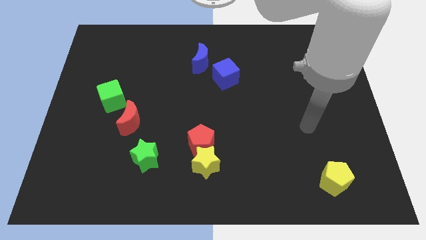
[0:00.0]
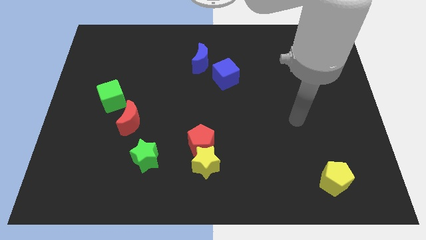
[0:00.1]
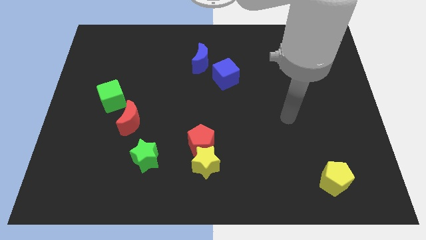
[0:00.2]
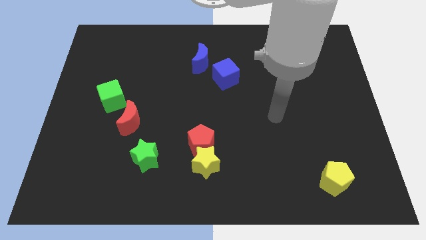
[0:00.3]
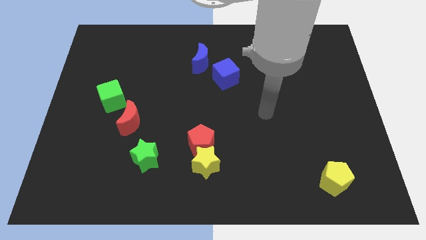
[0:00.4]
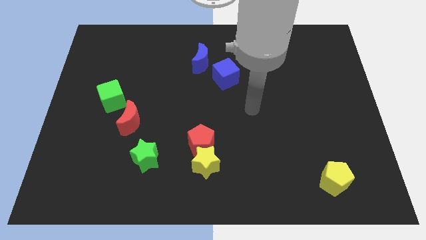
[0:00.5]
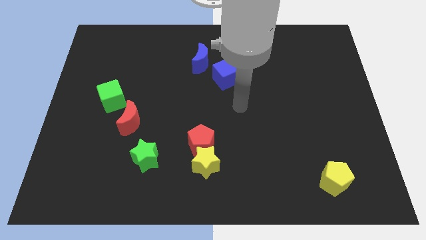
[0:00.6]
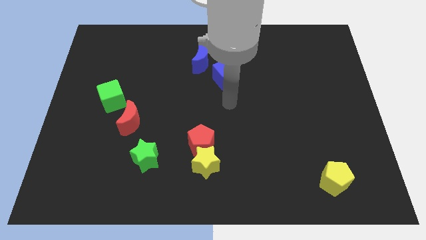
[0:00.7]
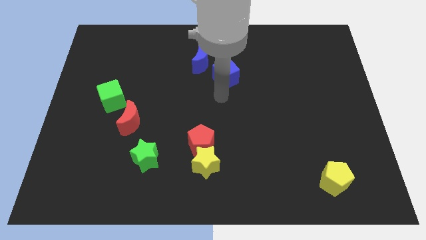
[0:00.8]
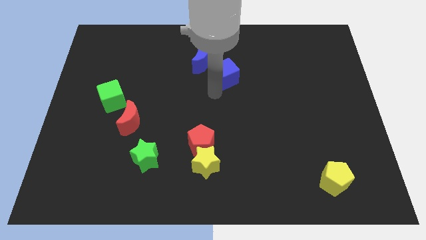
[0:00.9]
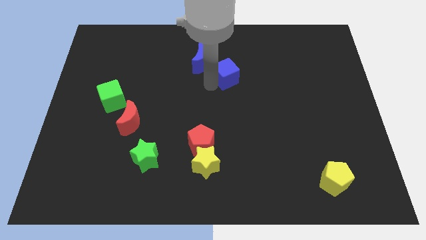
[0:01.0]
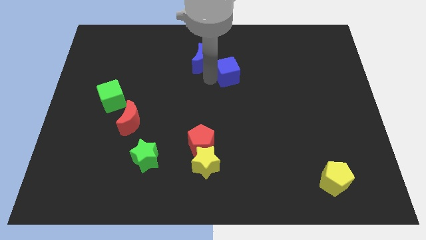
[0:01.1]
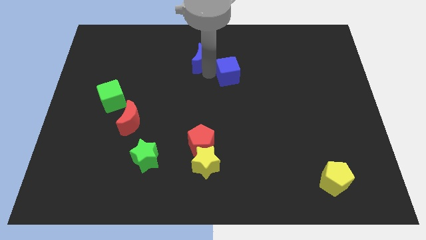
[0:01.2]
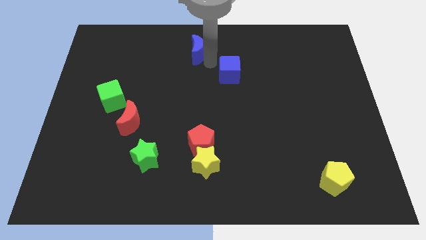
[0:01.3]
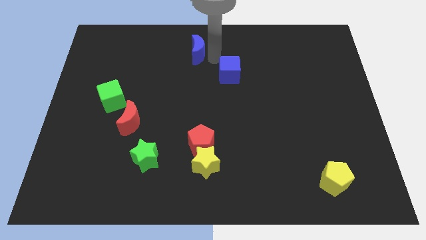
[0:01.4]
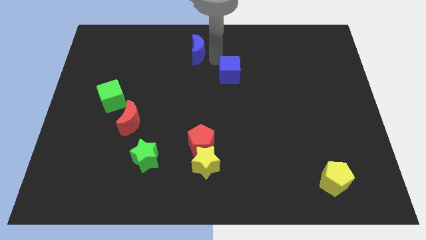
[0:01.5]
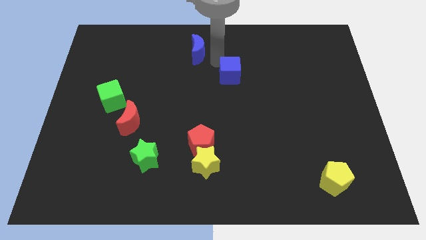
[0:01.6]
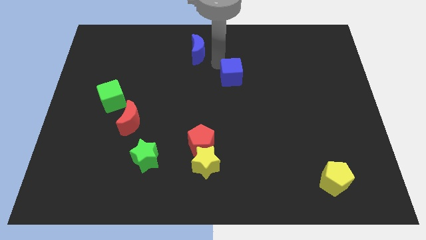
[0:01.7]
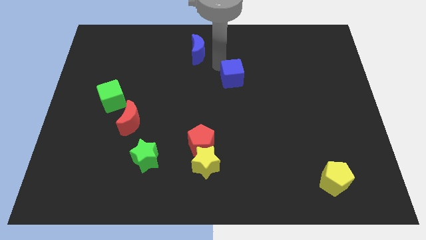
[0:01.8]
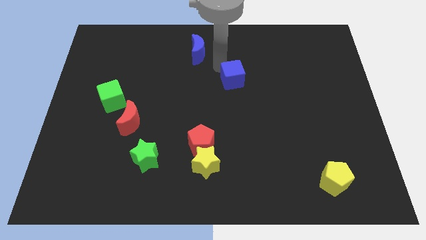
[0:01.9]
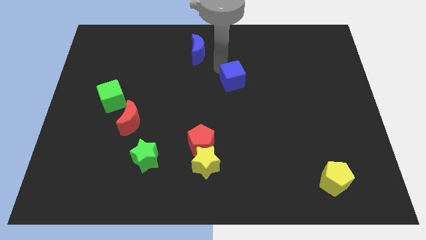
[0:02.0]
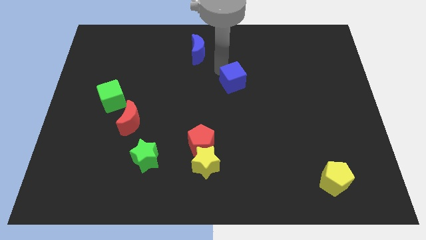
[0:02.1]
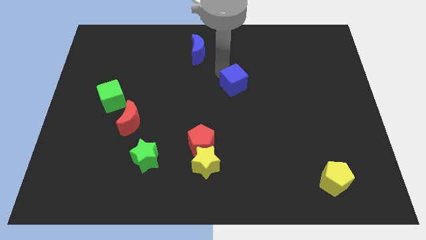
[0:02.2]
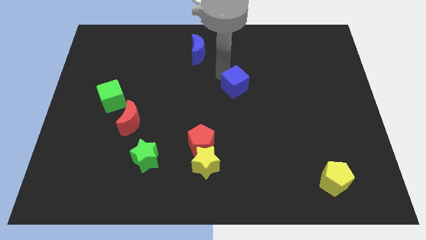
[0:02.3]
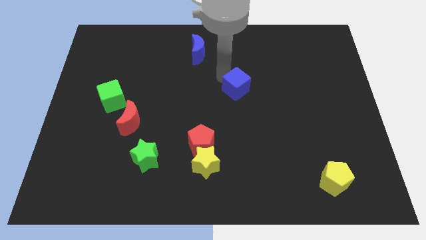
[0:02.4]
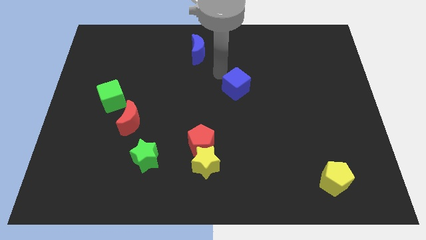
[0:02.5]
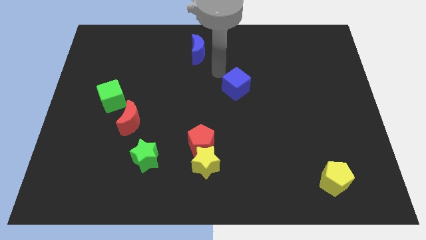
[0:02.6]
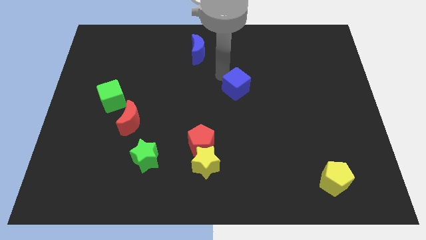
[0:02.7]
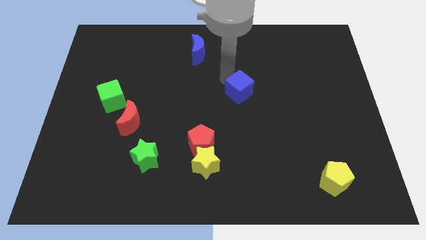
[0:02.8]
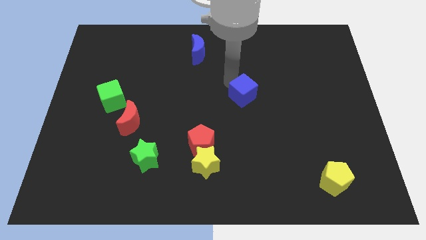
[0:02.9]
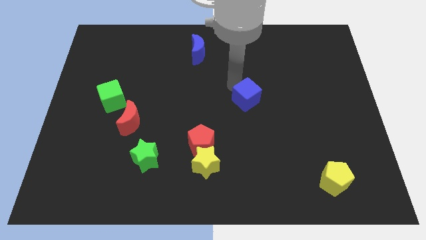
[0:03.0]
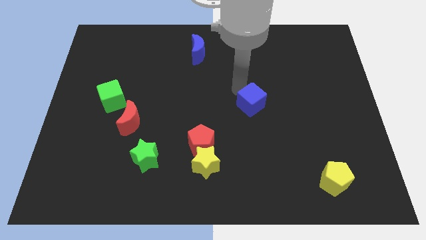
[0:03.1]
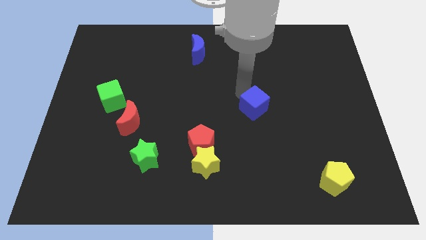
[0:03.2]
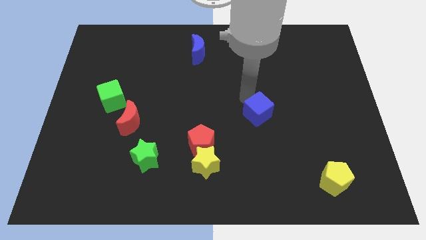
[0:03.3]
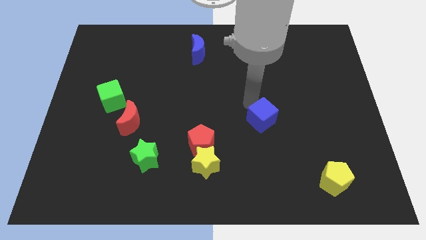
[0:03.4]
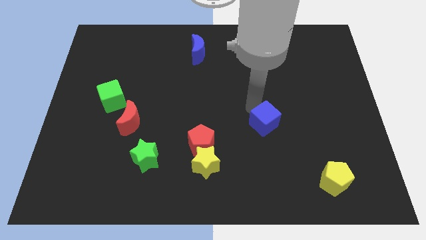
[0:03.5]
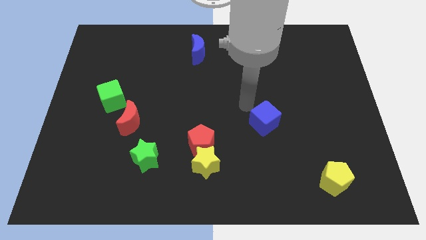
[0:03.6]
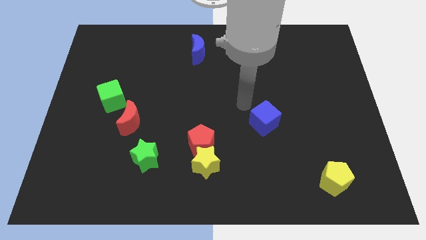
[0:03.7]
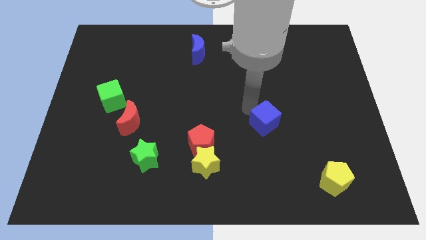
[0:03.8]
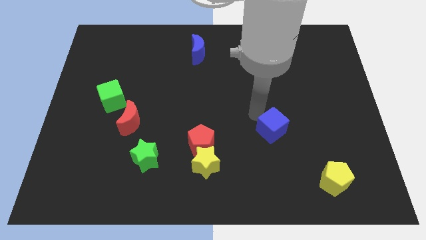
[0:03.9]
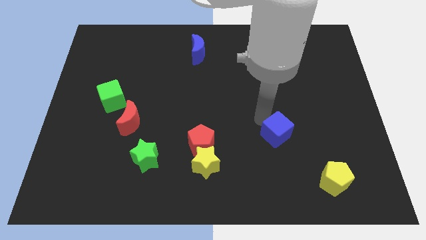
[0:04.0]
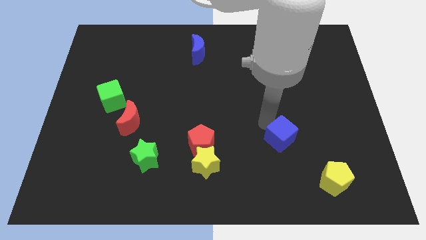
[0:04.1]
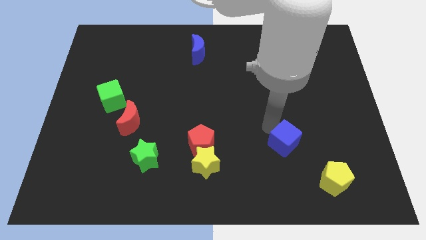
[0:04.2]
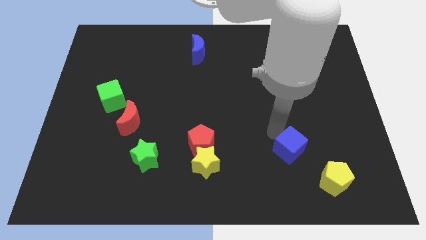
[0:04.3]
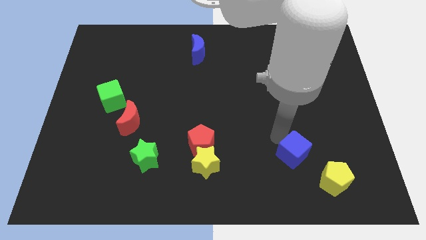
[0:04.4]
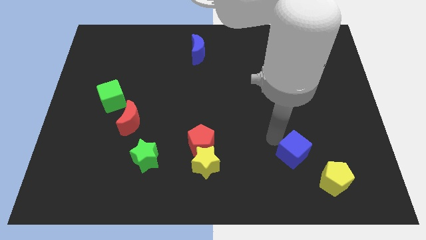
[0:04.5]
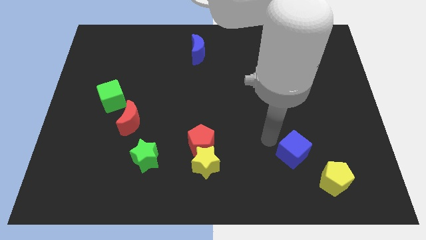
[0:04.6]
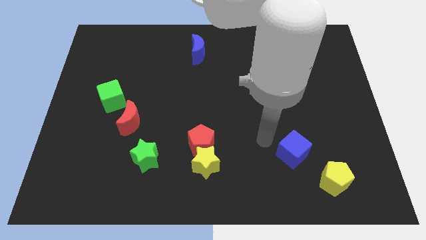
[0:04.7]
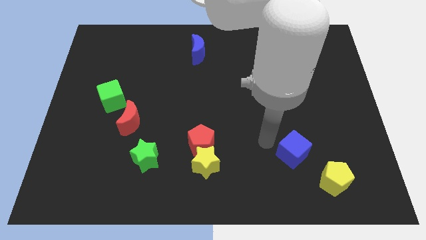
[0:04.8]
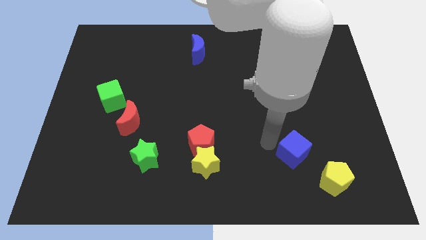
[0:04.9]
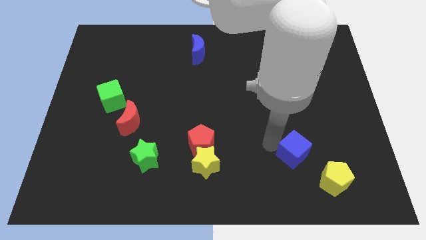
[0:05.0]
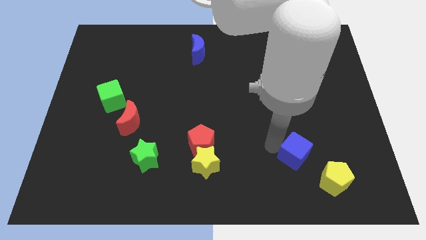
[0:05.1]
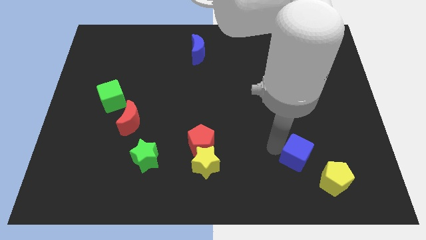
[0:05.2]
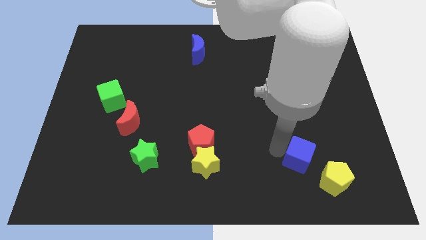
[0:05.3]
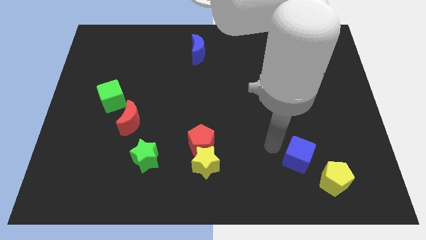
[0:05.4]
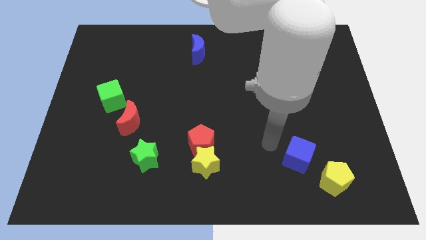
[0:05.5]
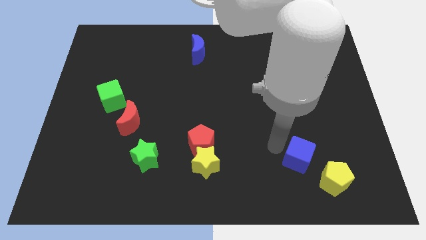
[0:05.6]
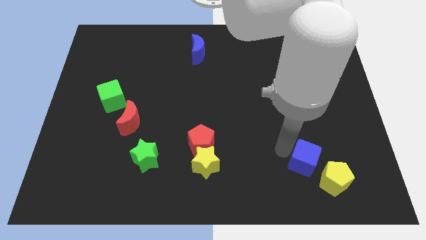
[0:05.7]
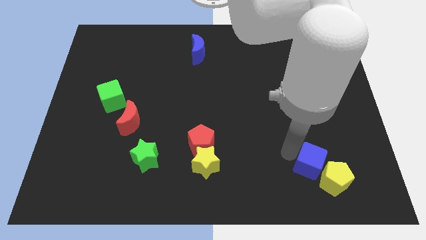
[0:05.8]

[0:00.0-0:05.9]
slide the blue cube towards the yellow pentagon

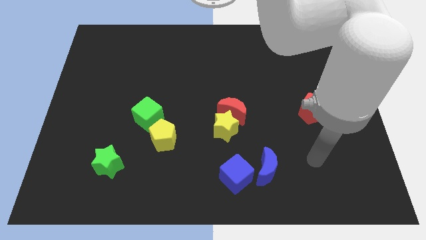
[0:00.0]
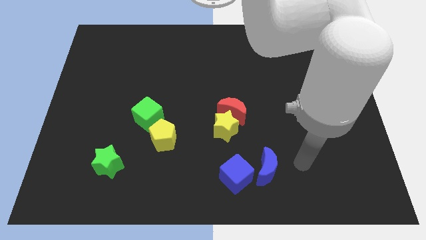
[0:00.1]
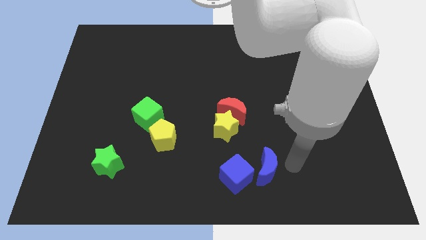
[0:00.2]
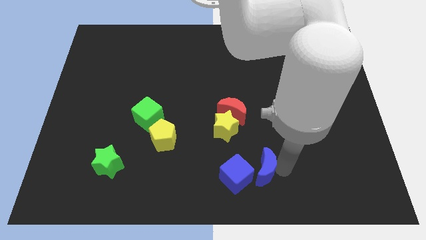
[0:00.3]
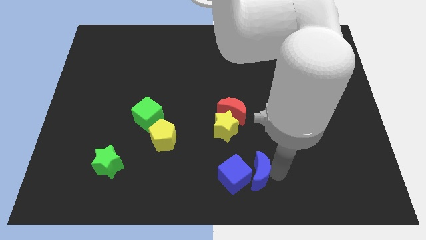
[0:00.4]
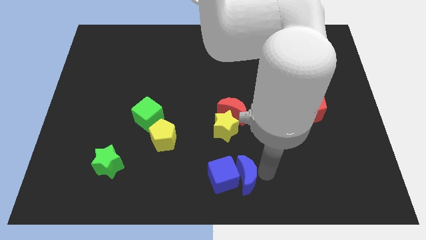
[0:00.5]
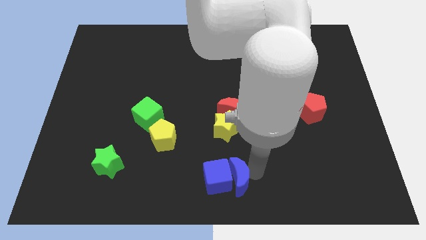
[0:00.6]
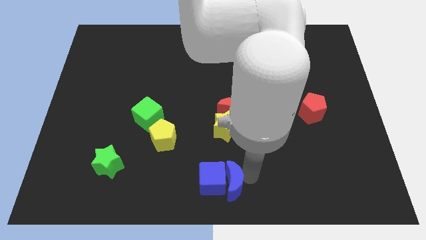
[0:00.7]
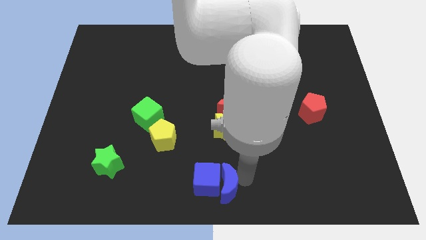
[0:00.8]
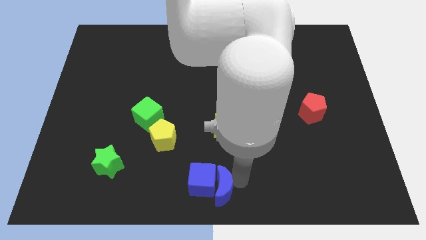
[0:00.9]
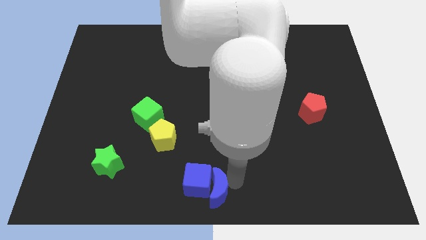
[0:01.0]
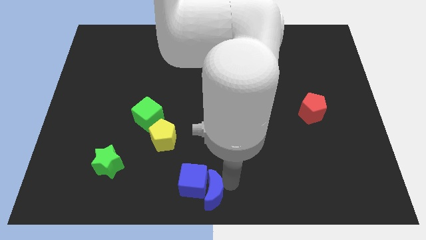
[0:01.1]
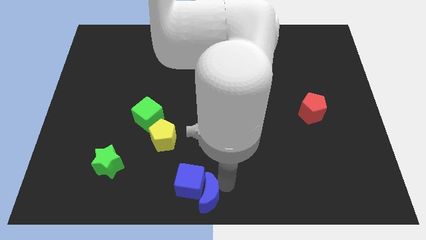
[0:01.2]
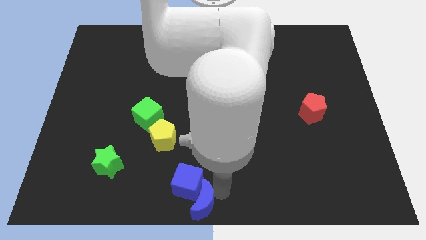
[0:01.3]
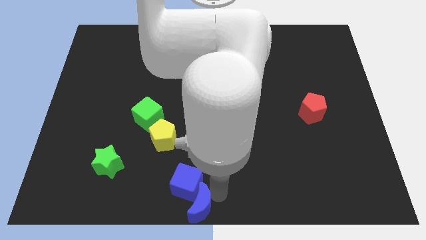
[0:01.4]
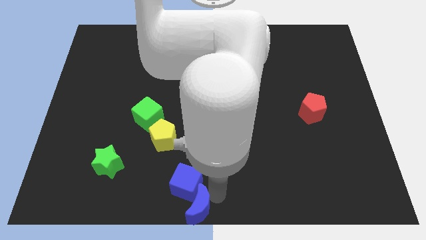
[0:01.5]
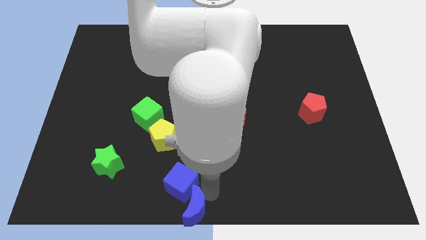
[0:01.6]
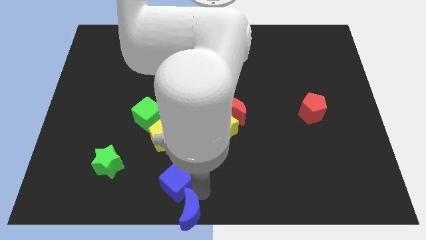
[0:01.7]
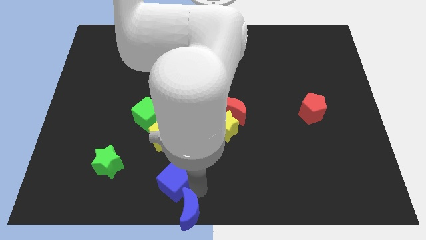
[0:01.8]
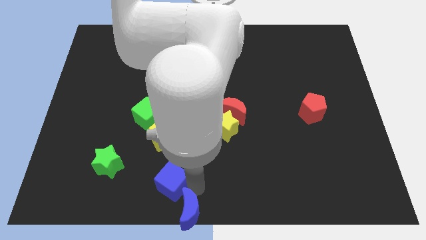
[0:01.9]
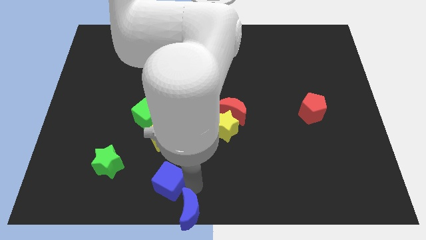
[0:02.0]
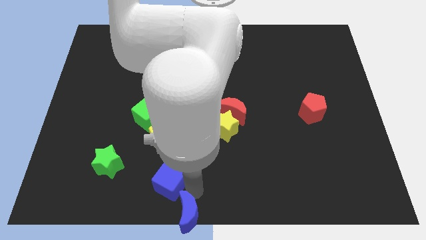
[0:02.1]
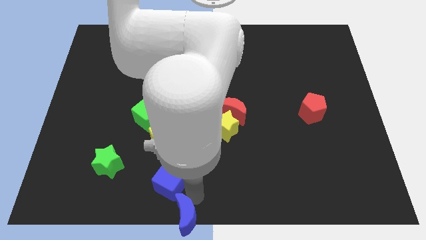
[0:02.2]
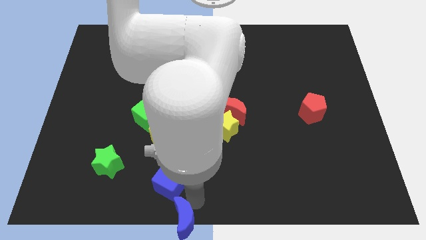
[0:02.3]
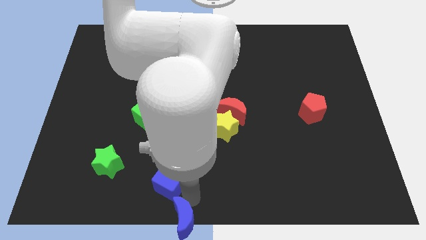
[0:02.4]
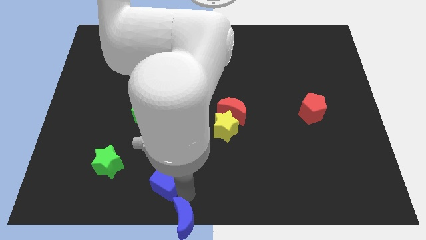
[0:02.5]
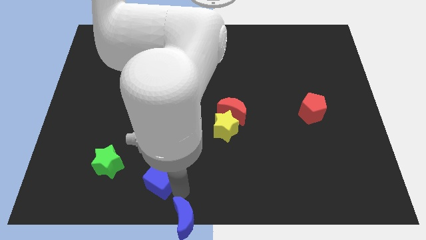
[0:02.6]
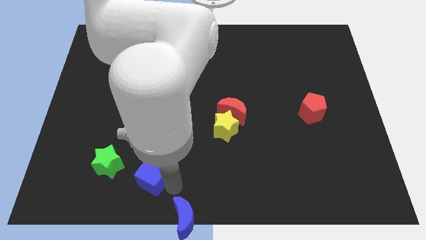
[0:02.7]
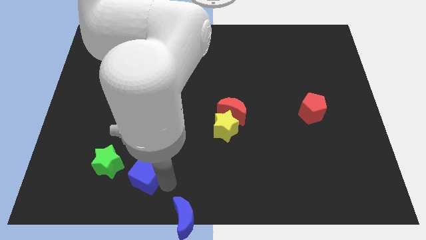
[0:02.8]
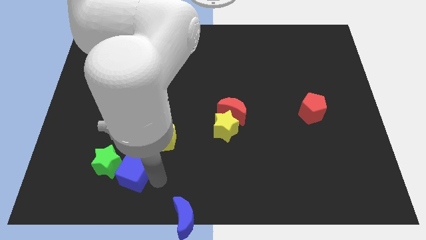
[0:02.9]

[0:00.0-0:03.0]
slide the blue cube next to the green star
